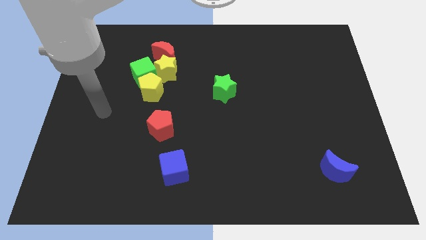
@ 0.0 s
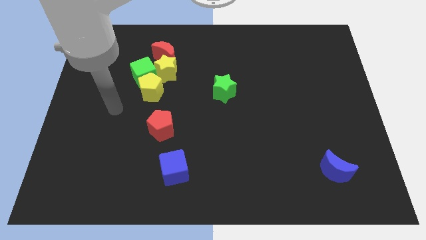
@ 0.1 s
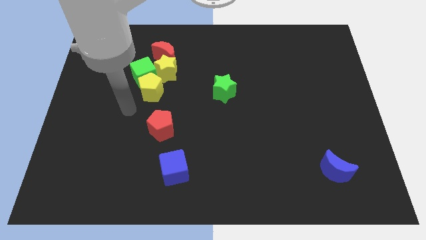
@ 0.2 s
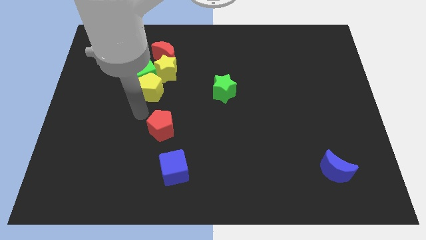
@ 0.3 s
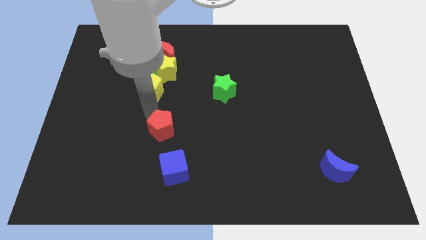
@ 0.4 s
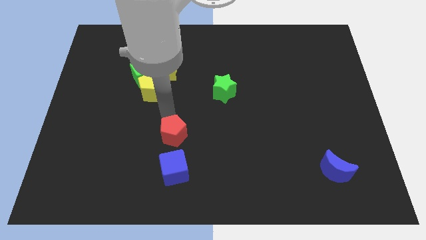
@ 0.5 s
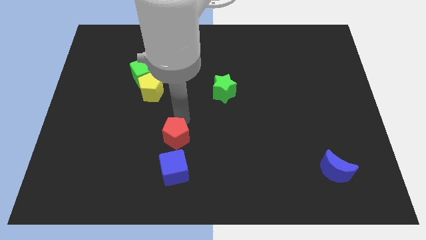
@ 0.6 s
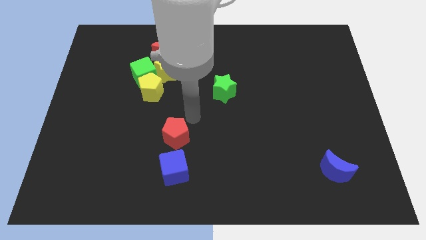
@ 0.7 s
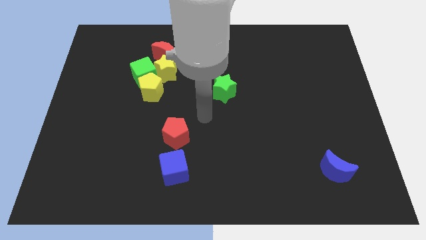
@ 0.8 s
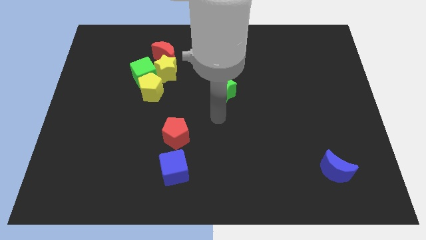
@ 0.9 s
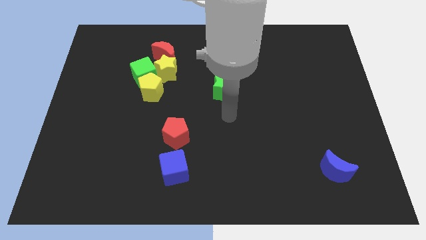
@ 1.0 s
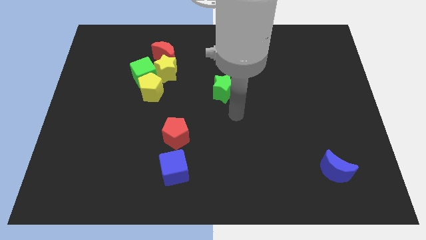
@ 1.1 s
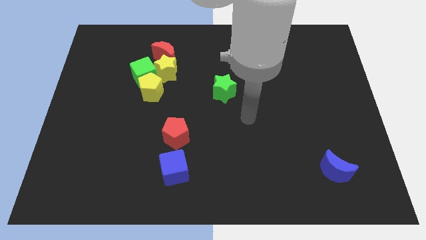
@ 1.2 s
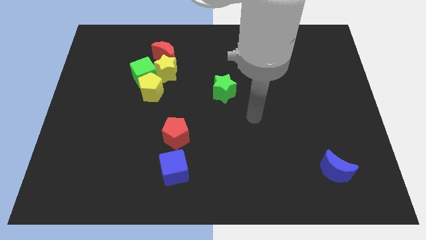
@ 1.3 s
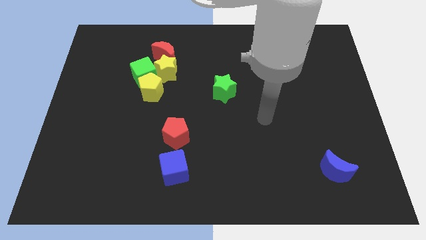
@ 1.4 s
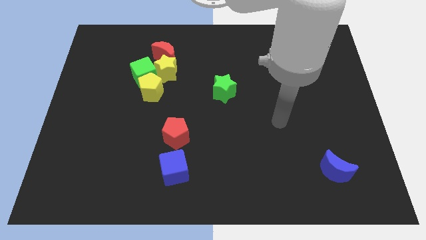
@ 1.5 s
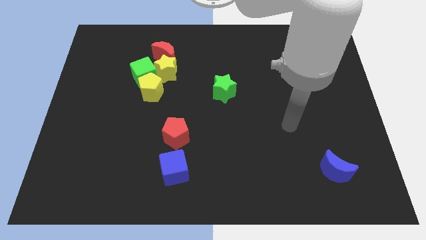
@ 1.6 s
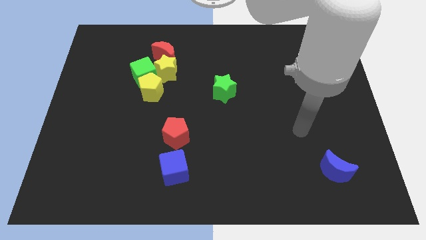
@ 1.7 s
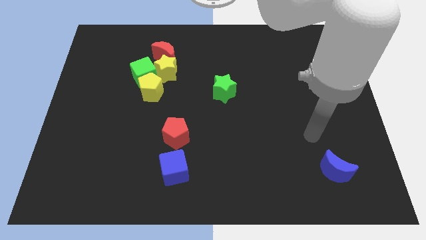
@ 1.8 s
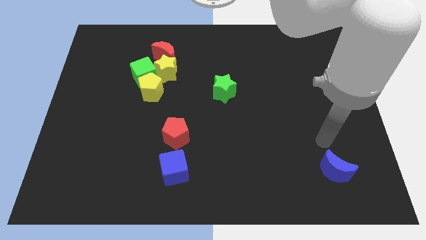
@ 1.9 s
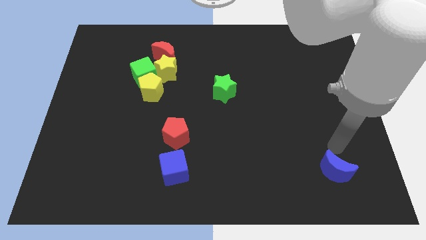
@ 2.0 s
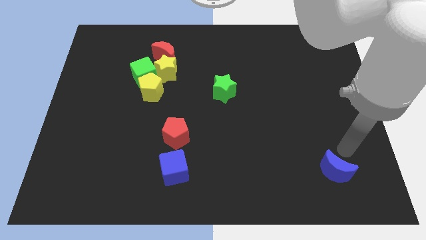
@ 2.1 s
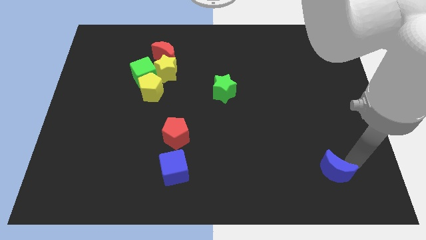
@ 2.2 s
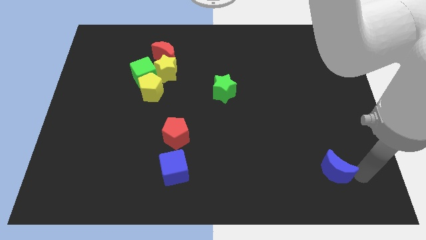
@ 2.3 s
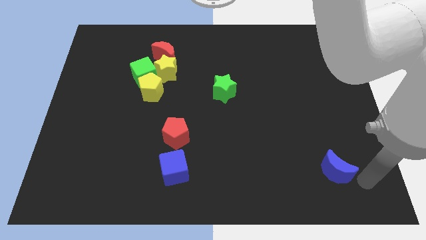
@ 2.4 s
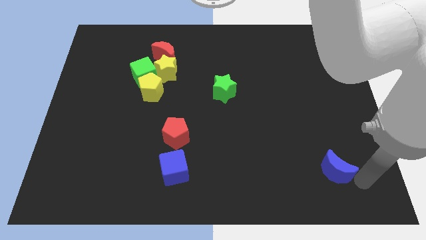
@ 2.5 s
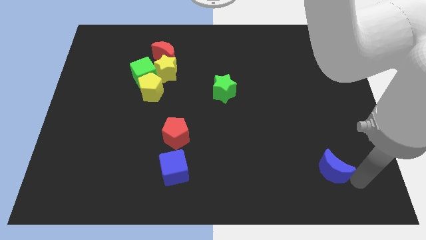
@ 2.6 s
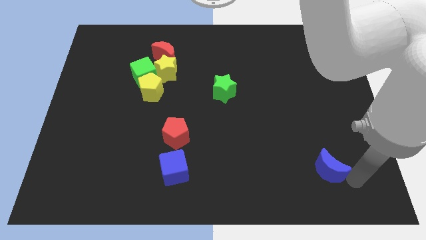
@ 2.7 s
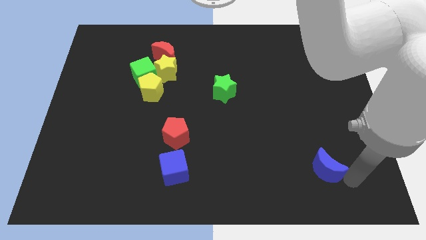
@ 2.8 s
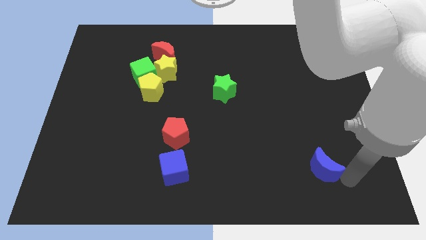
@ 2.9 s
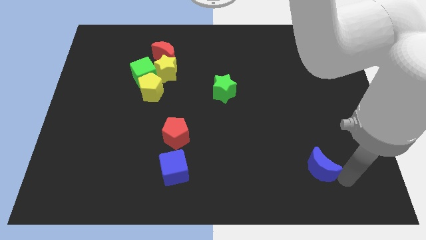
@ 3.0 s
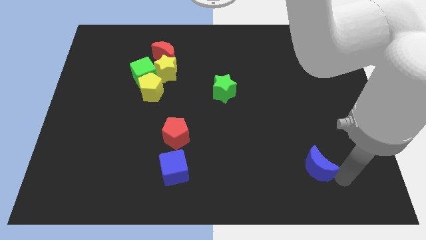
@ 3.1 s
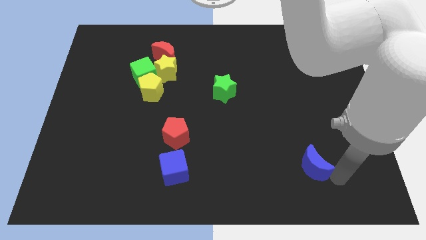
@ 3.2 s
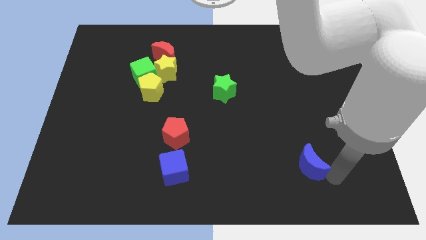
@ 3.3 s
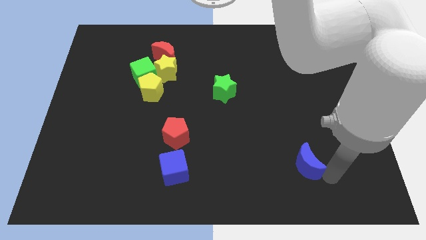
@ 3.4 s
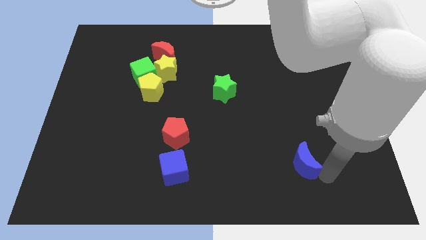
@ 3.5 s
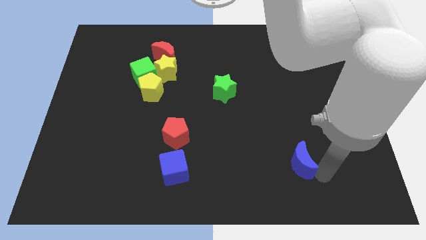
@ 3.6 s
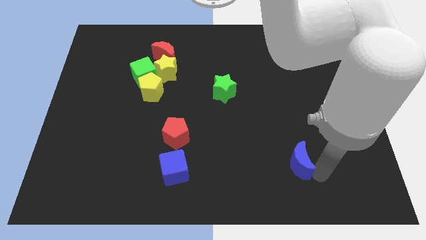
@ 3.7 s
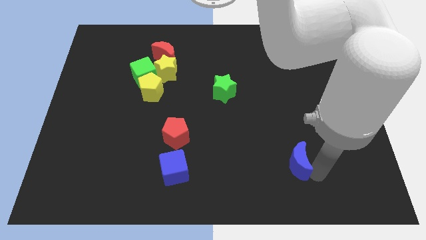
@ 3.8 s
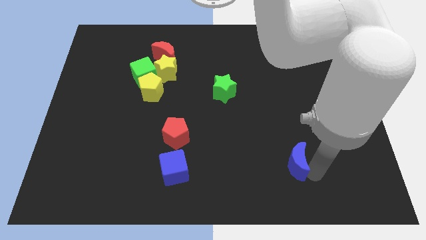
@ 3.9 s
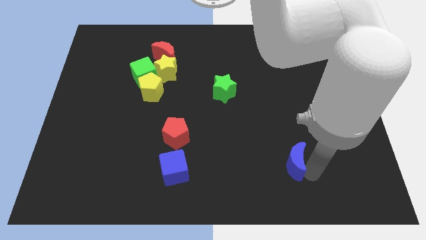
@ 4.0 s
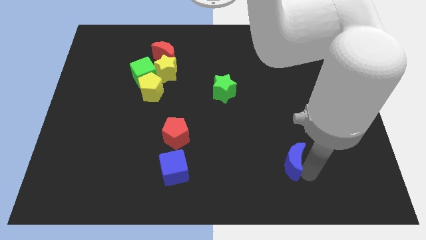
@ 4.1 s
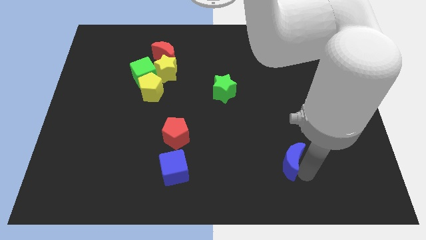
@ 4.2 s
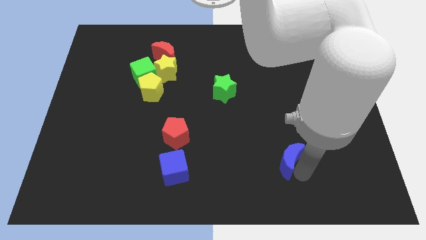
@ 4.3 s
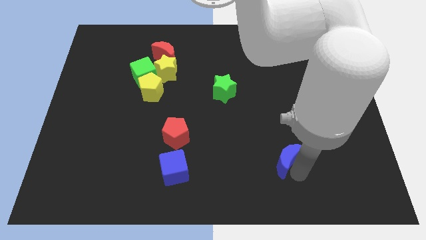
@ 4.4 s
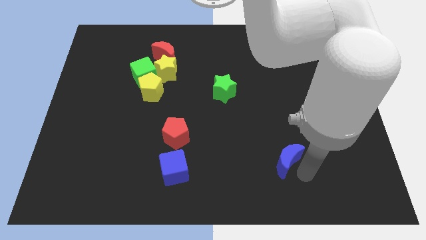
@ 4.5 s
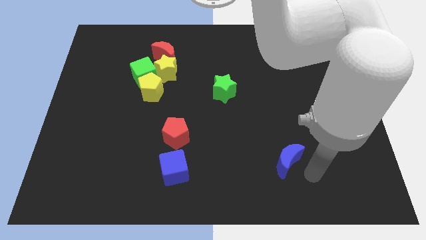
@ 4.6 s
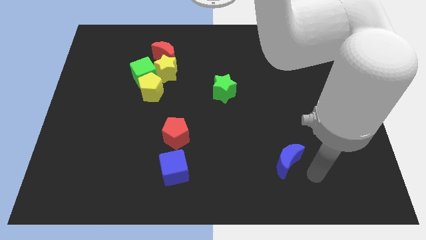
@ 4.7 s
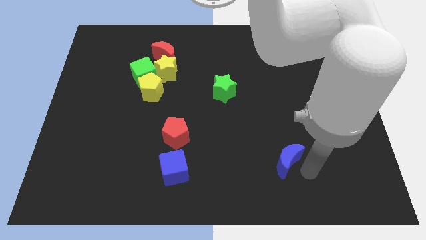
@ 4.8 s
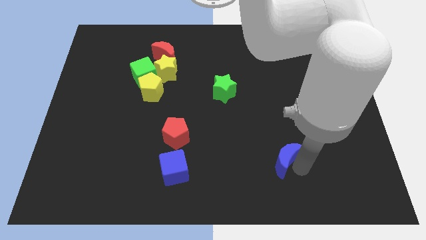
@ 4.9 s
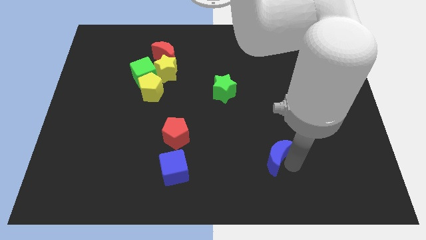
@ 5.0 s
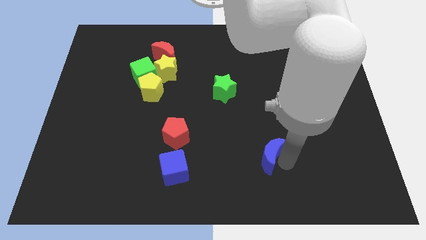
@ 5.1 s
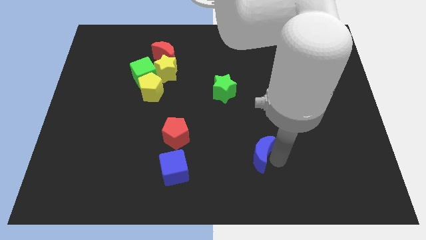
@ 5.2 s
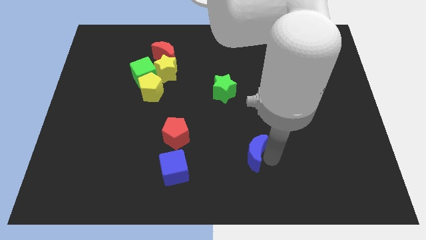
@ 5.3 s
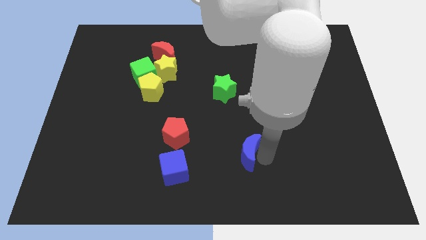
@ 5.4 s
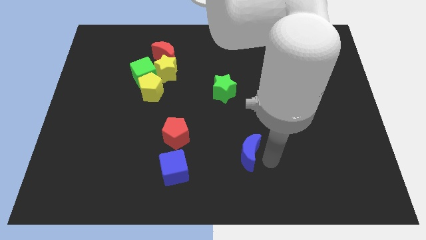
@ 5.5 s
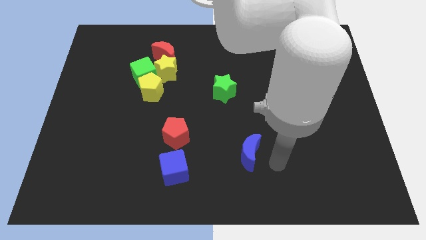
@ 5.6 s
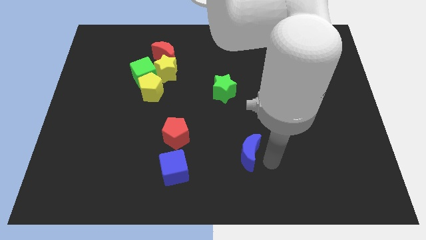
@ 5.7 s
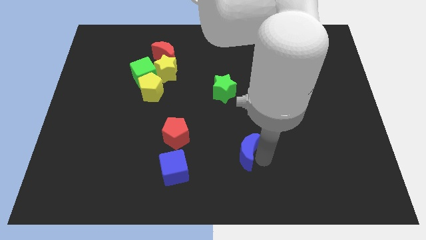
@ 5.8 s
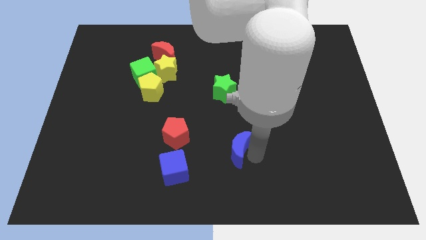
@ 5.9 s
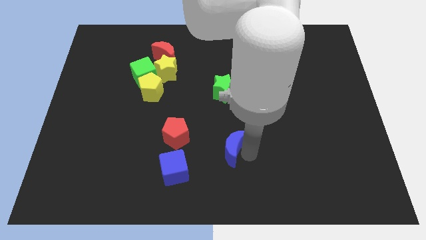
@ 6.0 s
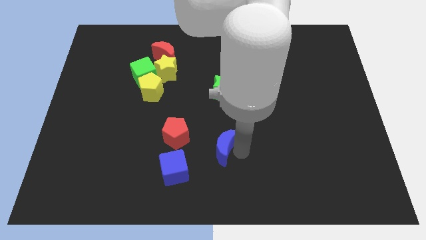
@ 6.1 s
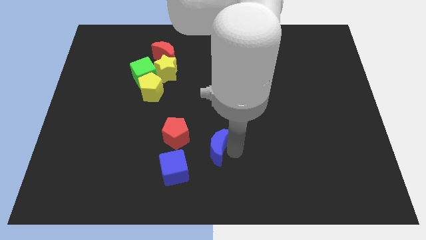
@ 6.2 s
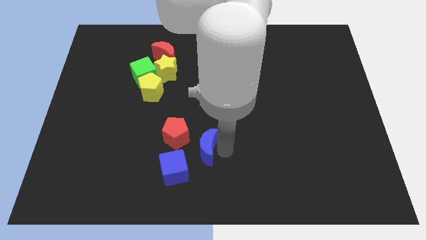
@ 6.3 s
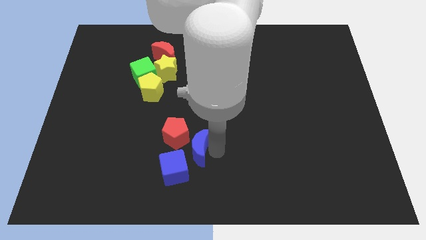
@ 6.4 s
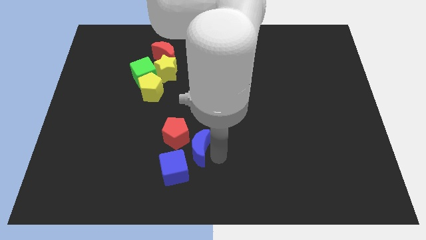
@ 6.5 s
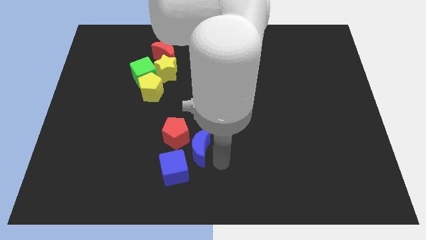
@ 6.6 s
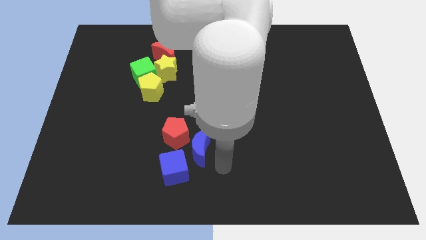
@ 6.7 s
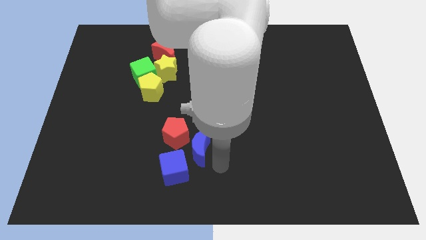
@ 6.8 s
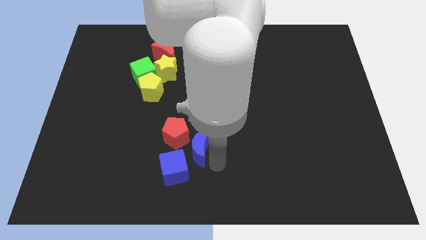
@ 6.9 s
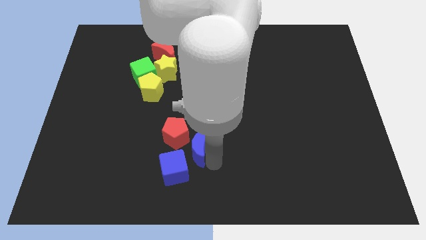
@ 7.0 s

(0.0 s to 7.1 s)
put the blue moon to the red pentagon
